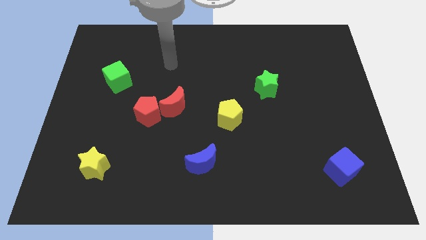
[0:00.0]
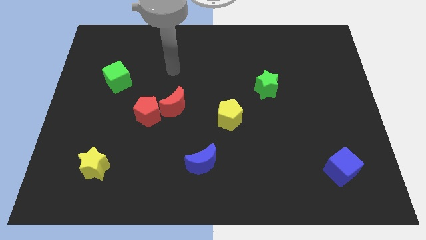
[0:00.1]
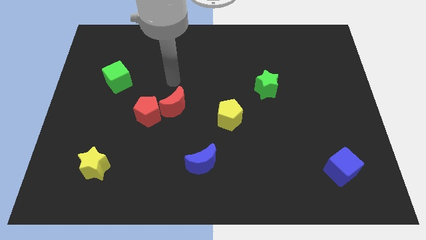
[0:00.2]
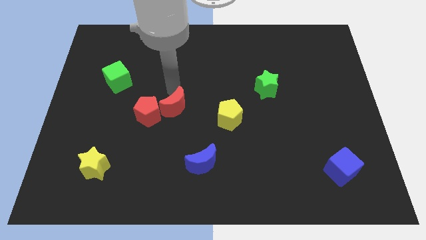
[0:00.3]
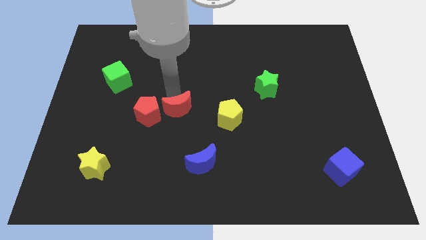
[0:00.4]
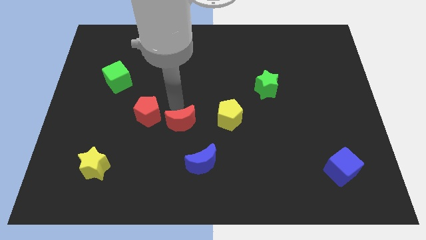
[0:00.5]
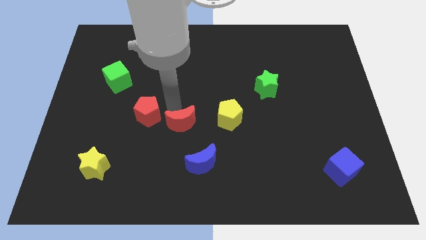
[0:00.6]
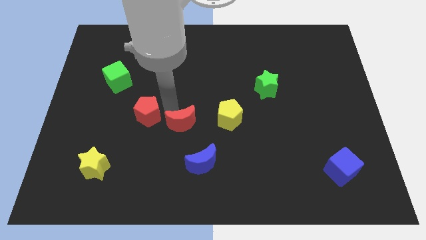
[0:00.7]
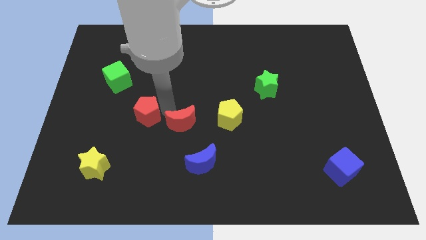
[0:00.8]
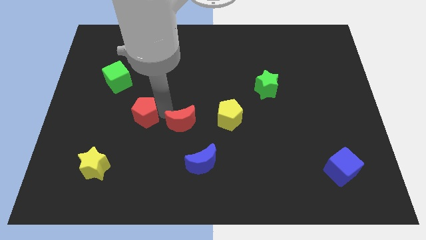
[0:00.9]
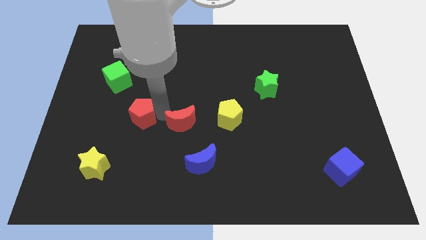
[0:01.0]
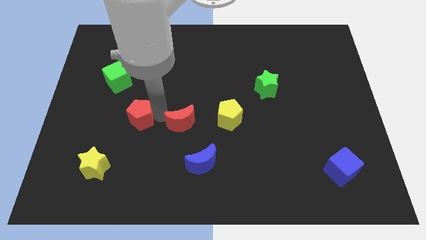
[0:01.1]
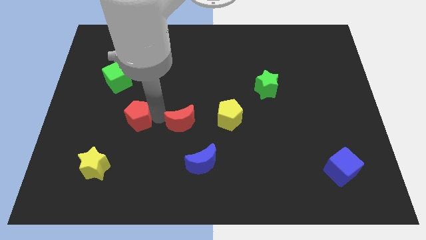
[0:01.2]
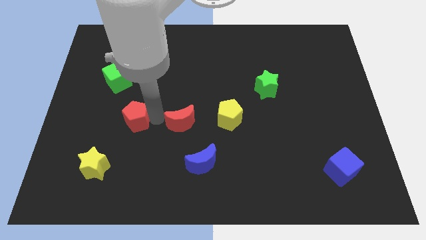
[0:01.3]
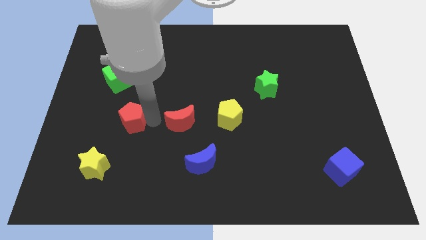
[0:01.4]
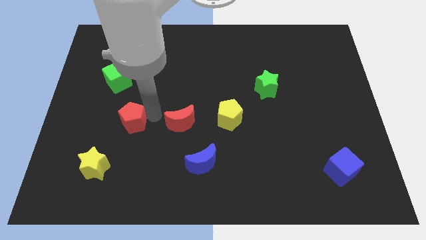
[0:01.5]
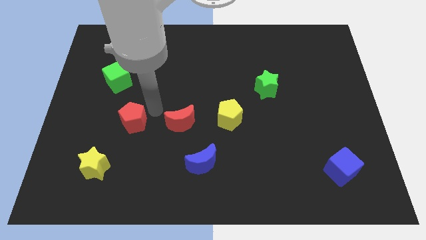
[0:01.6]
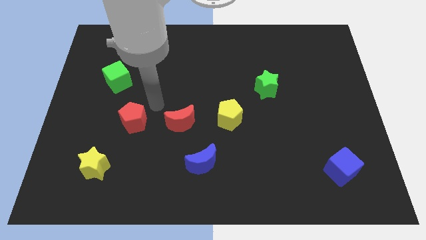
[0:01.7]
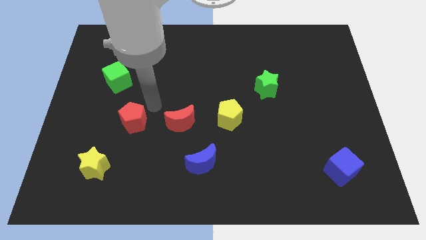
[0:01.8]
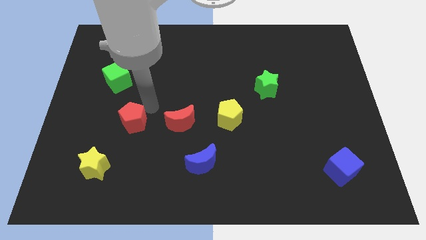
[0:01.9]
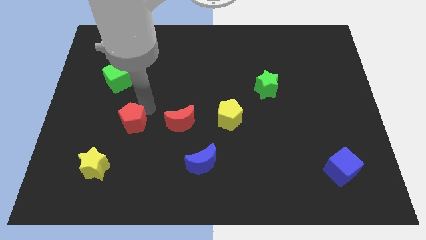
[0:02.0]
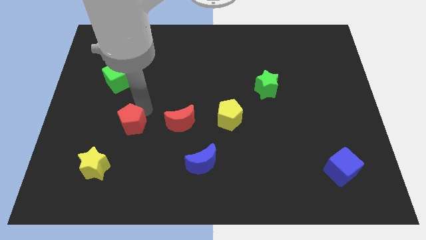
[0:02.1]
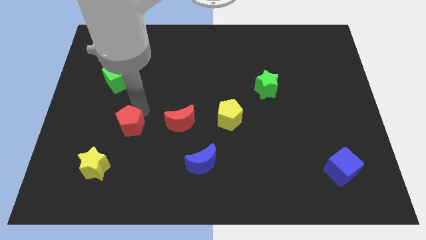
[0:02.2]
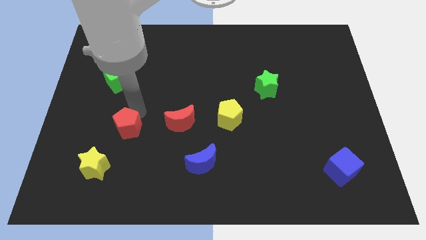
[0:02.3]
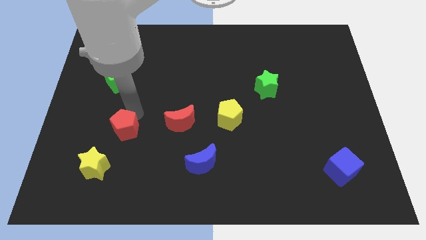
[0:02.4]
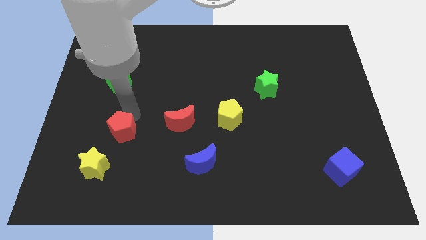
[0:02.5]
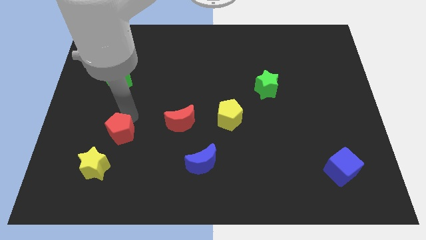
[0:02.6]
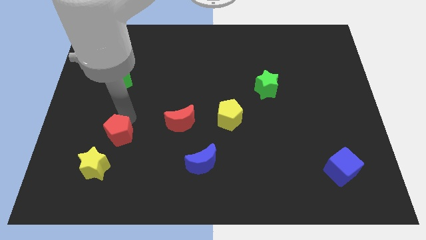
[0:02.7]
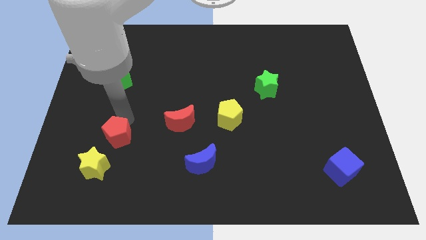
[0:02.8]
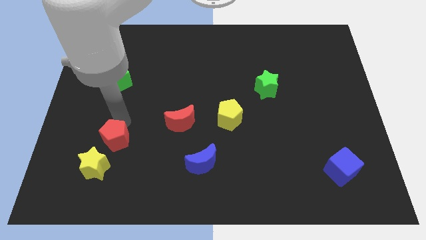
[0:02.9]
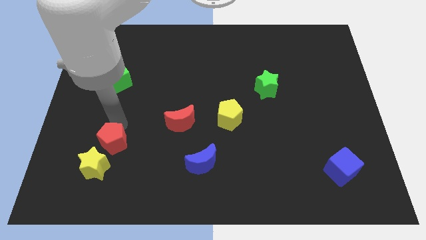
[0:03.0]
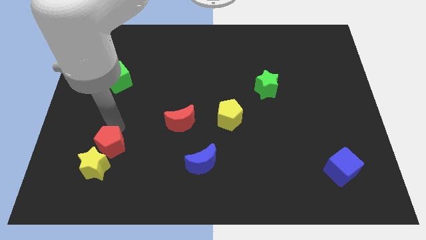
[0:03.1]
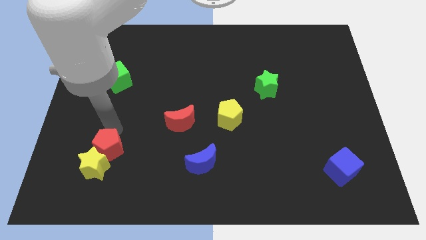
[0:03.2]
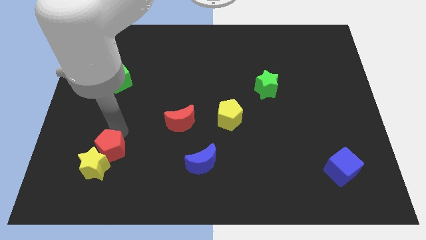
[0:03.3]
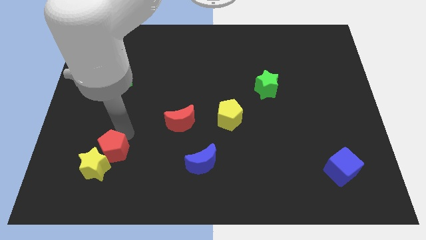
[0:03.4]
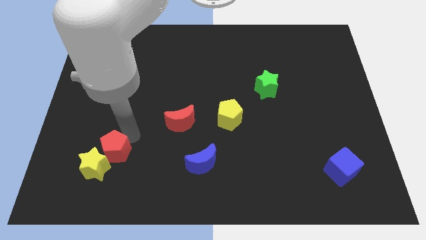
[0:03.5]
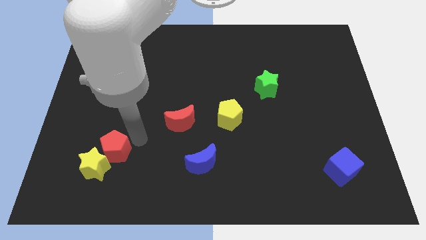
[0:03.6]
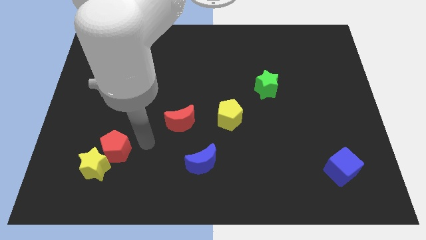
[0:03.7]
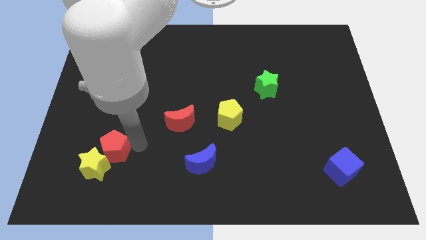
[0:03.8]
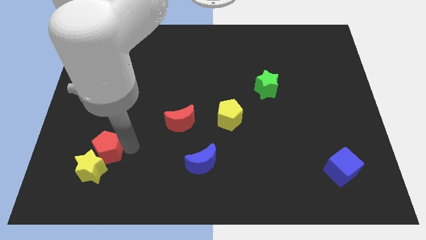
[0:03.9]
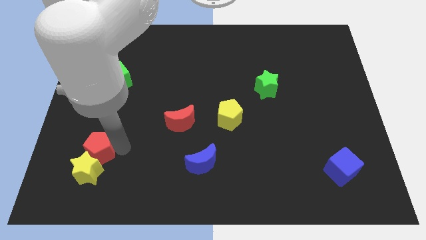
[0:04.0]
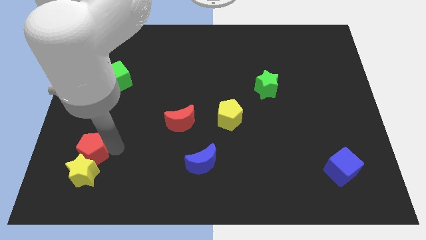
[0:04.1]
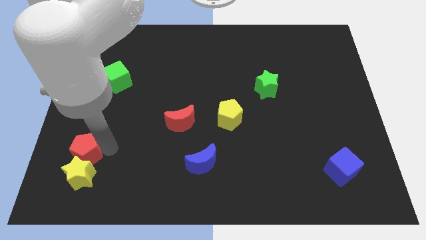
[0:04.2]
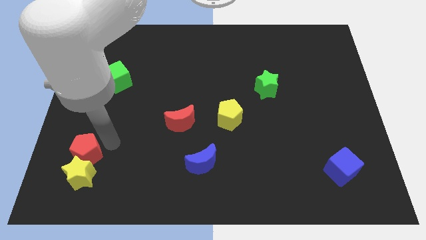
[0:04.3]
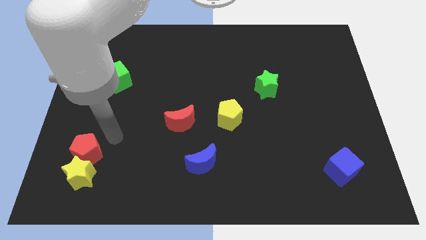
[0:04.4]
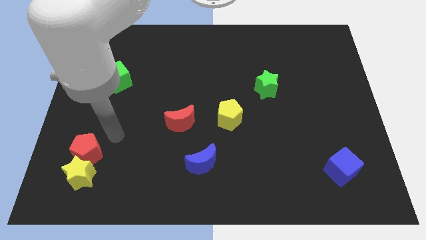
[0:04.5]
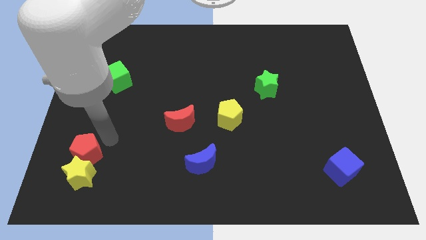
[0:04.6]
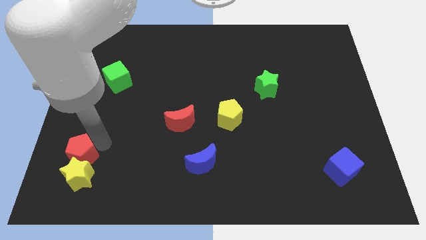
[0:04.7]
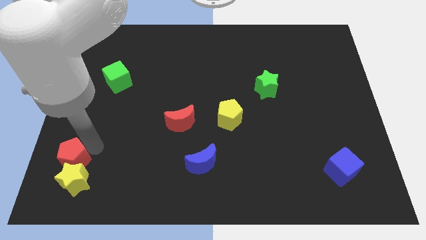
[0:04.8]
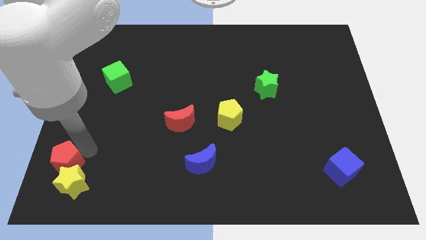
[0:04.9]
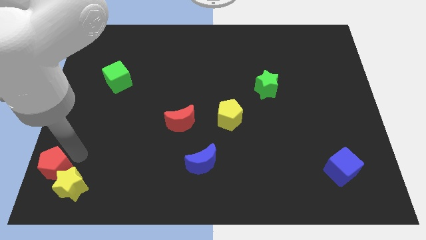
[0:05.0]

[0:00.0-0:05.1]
push the red pentagon to the bottom left corner

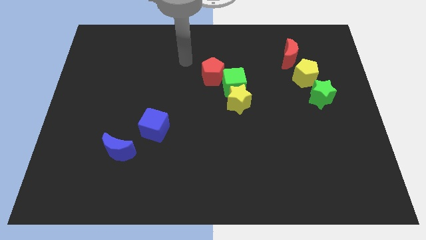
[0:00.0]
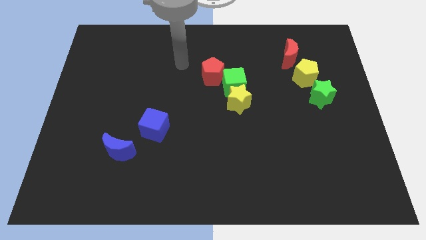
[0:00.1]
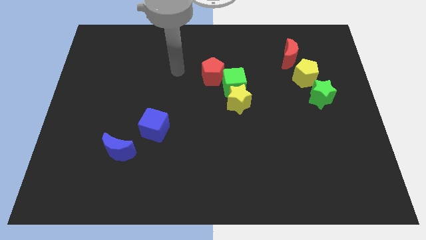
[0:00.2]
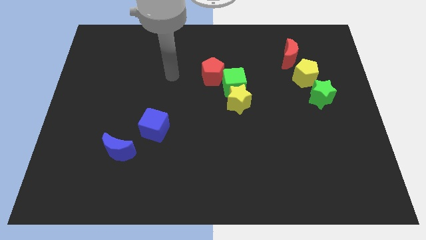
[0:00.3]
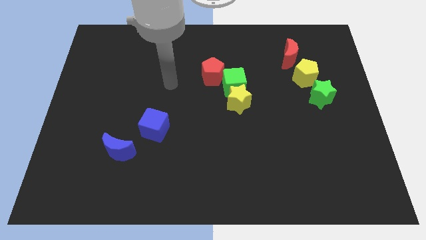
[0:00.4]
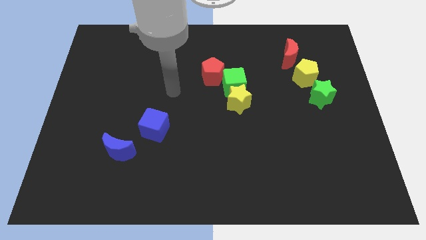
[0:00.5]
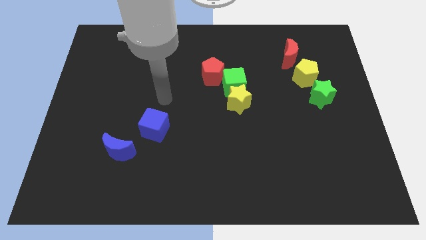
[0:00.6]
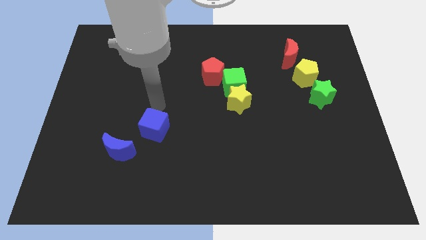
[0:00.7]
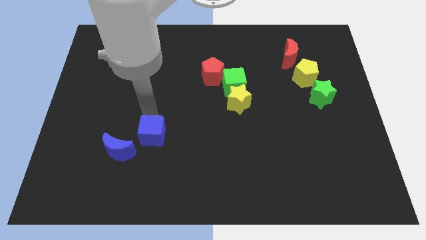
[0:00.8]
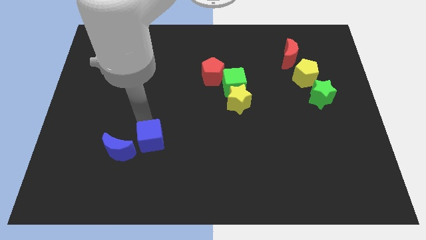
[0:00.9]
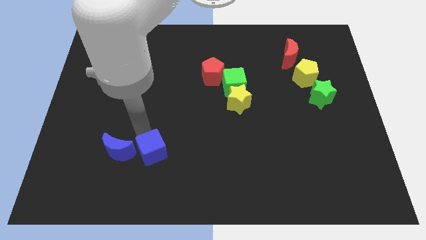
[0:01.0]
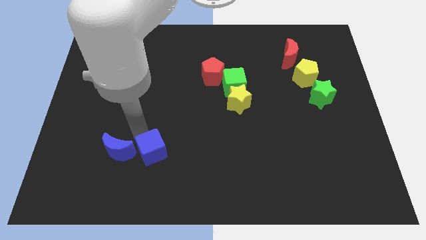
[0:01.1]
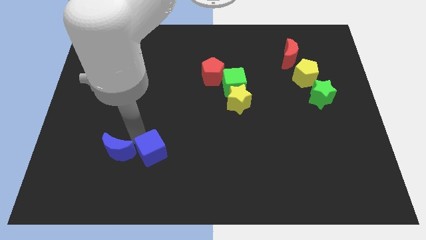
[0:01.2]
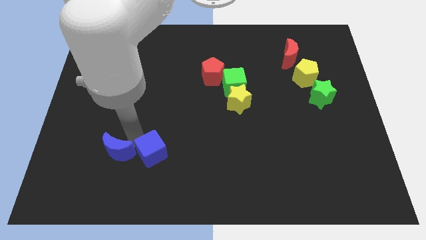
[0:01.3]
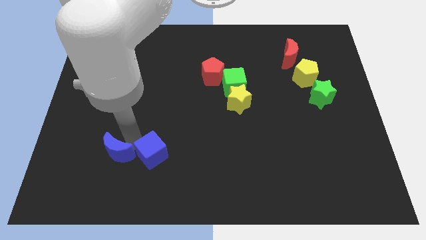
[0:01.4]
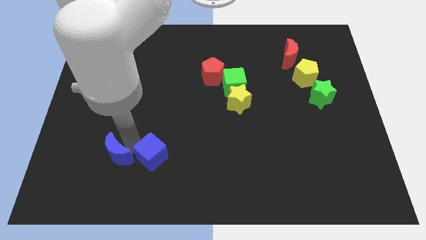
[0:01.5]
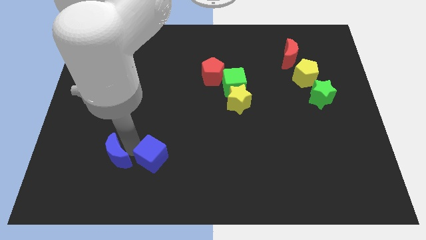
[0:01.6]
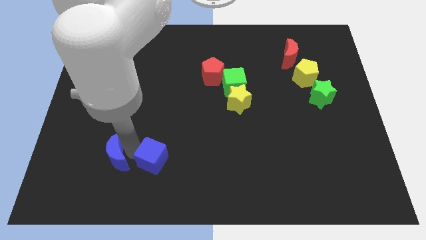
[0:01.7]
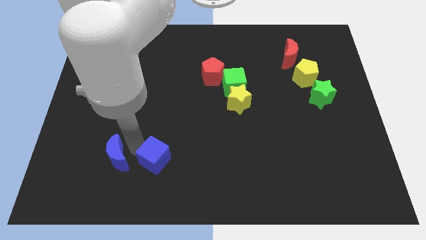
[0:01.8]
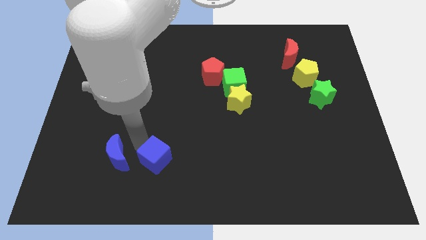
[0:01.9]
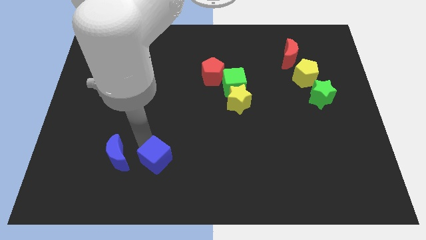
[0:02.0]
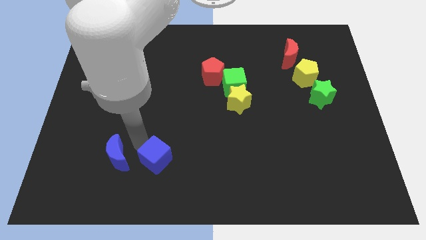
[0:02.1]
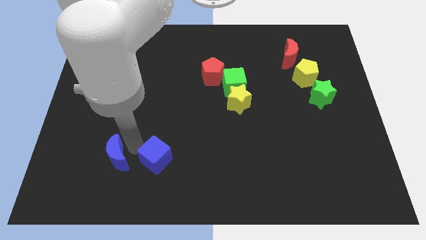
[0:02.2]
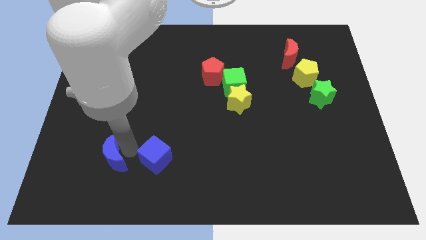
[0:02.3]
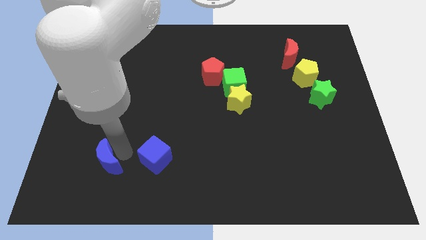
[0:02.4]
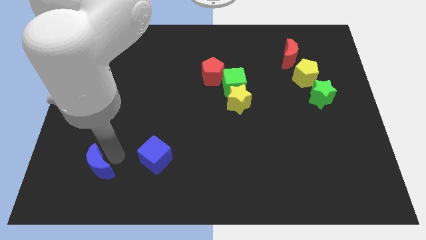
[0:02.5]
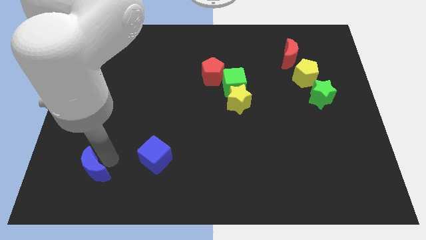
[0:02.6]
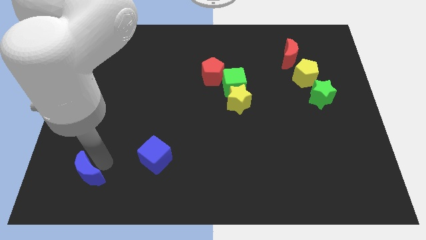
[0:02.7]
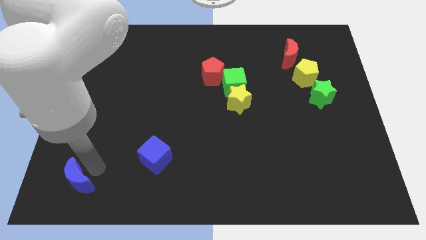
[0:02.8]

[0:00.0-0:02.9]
move the blue moon to the bottom left of the board

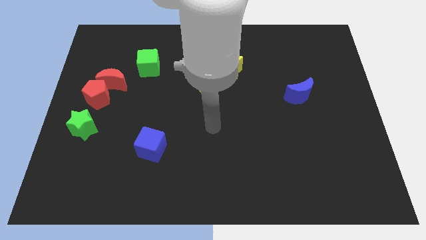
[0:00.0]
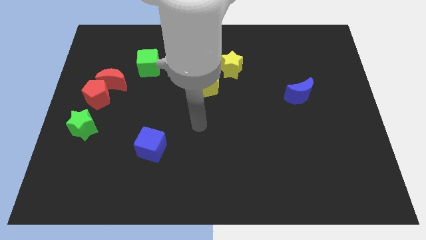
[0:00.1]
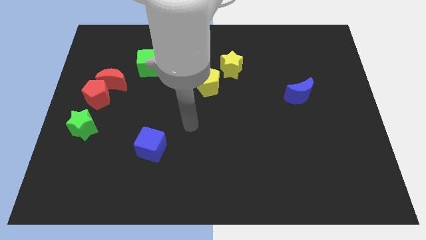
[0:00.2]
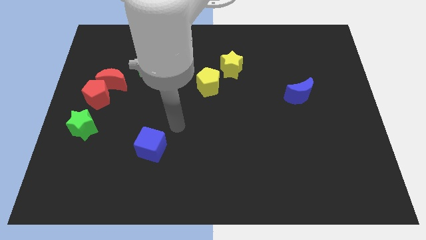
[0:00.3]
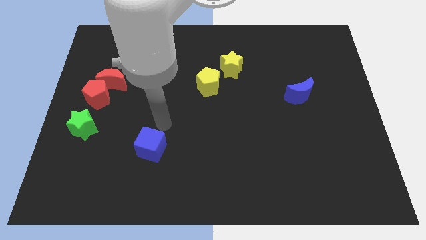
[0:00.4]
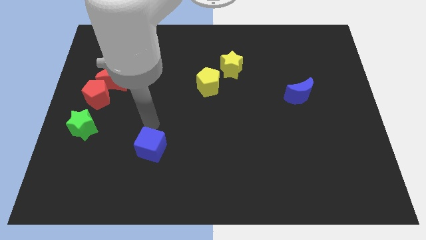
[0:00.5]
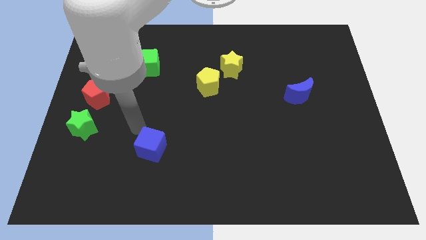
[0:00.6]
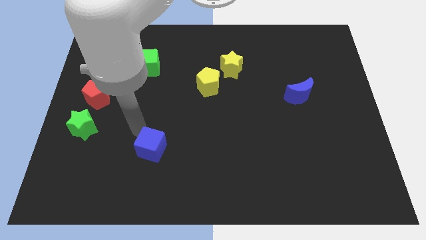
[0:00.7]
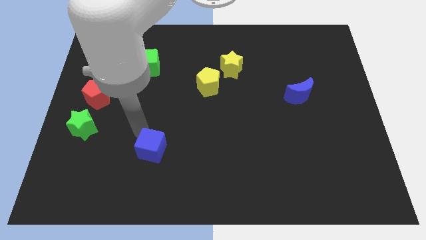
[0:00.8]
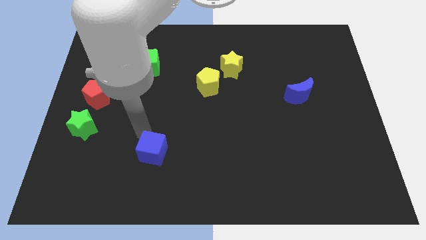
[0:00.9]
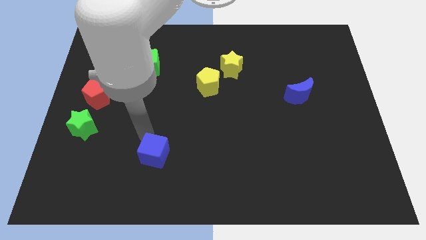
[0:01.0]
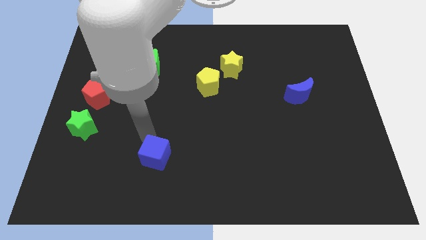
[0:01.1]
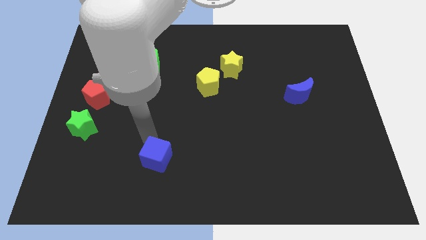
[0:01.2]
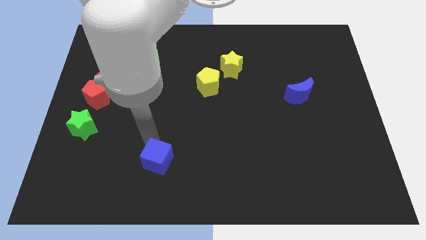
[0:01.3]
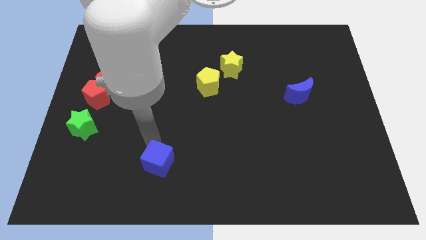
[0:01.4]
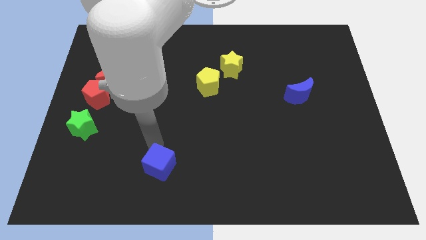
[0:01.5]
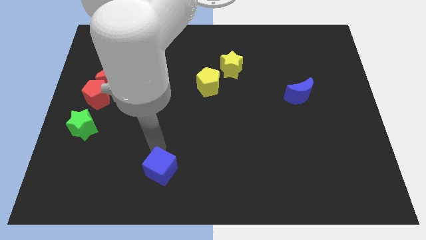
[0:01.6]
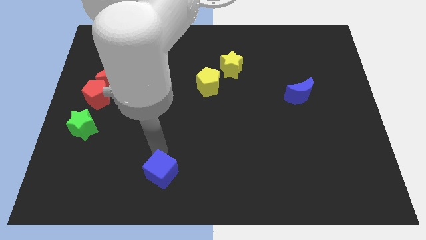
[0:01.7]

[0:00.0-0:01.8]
slide the blue cube to the bottom side
